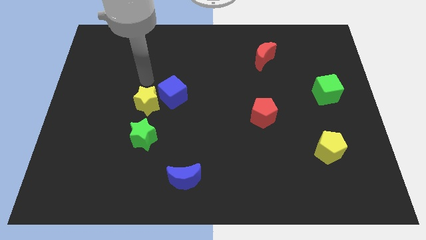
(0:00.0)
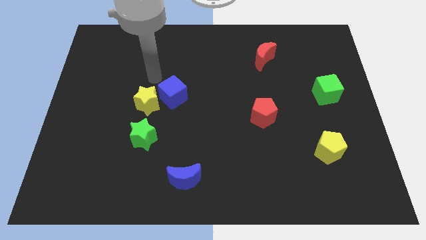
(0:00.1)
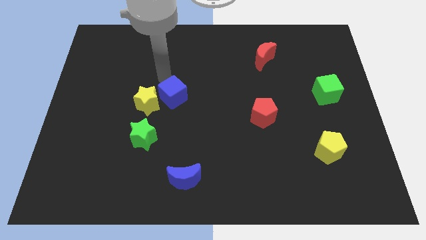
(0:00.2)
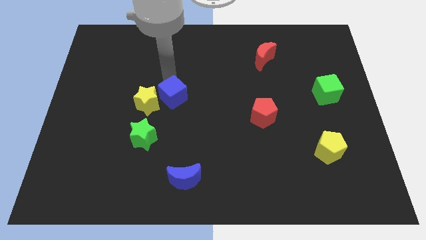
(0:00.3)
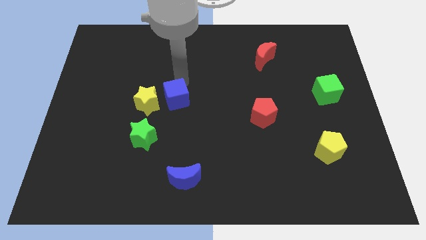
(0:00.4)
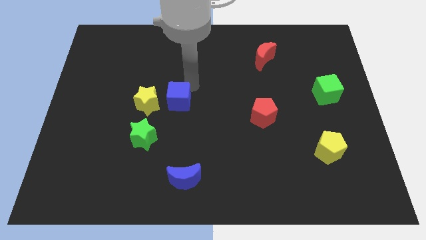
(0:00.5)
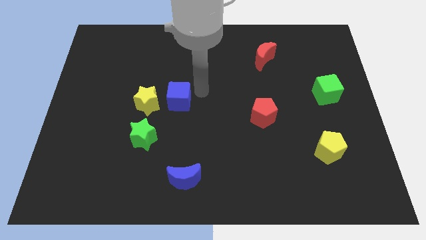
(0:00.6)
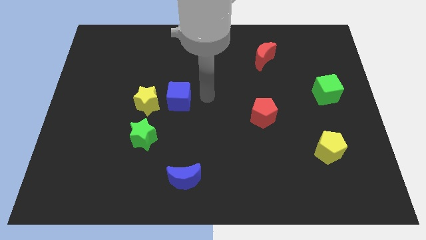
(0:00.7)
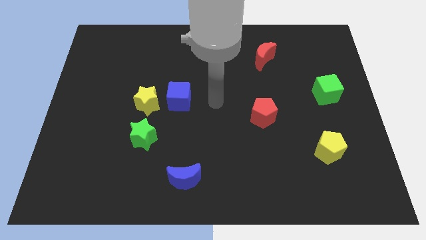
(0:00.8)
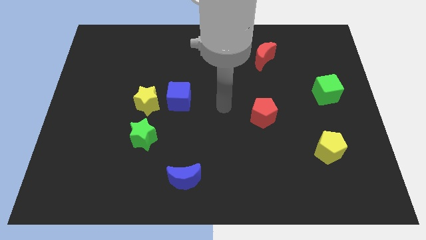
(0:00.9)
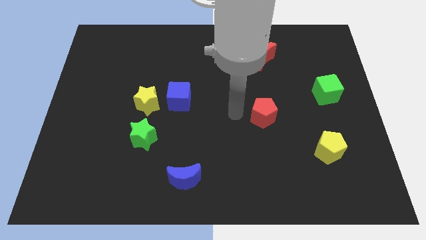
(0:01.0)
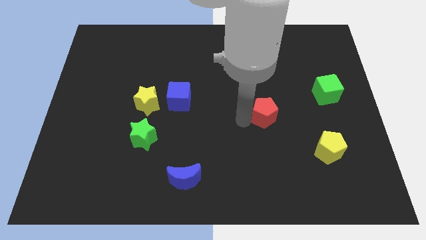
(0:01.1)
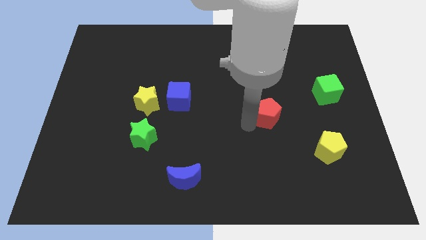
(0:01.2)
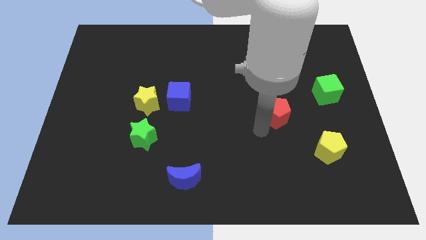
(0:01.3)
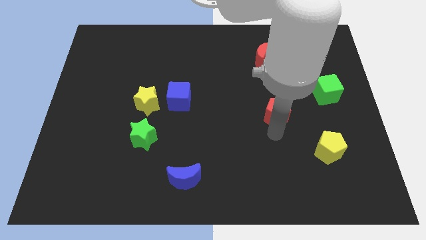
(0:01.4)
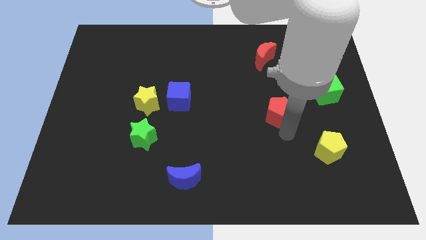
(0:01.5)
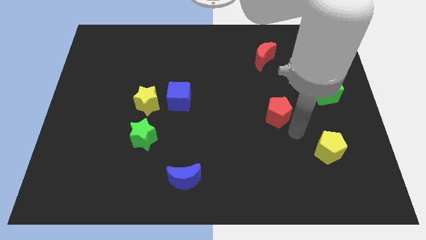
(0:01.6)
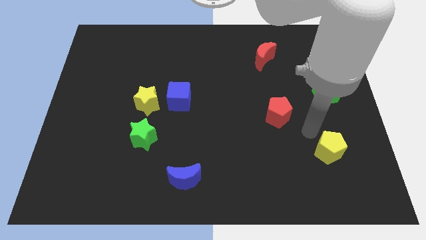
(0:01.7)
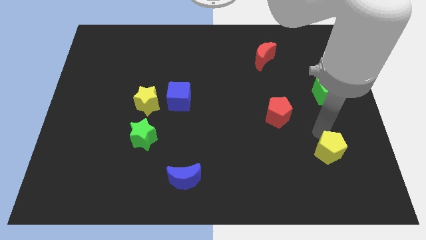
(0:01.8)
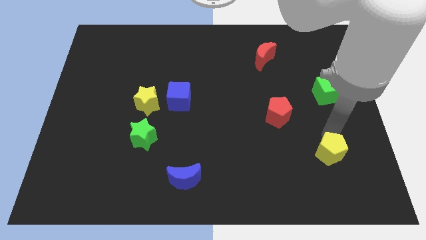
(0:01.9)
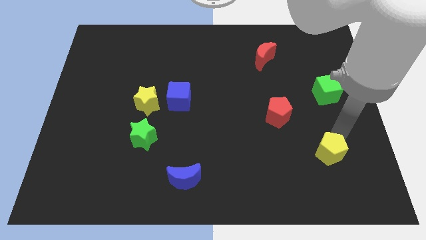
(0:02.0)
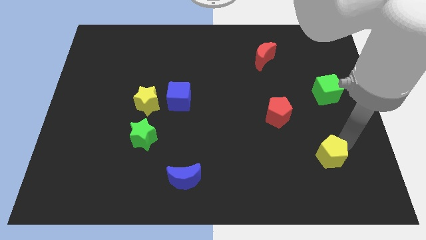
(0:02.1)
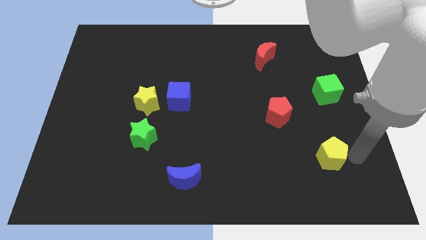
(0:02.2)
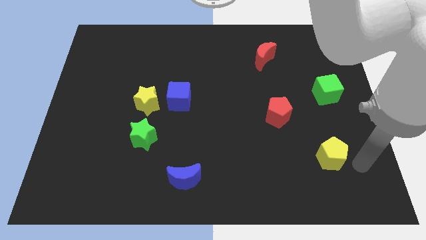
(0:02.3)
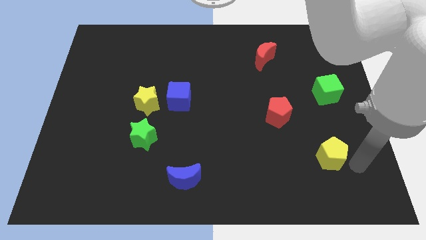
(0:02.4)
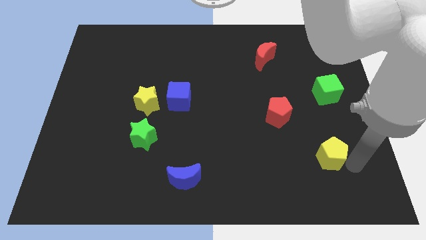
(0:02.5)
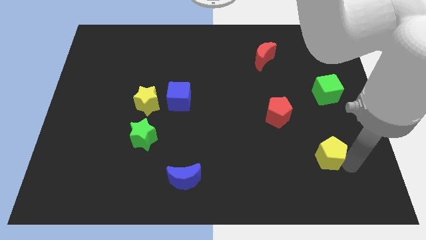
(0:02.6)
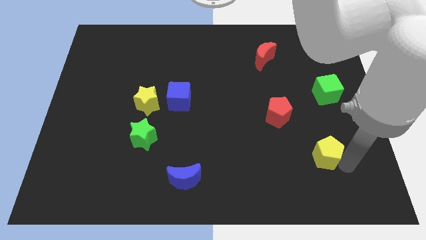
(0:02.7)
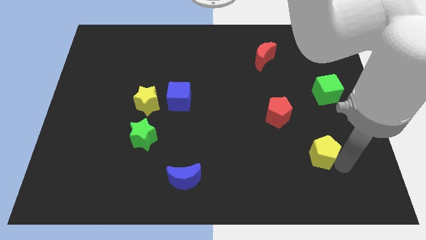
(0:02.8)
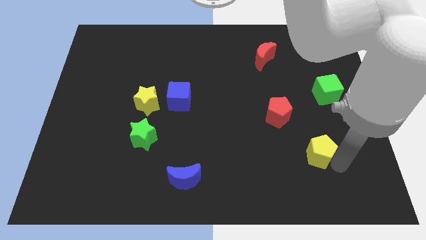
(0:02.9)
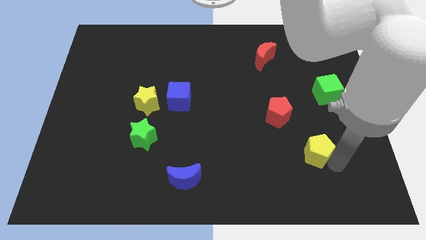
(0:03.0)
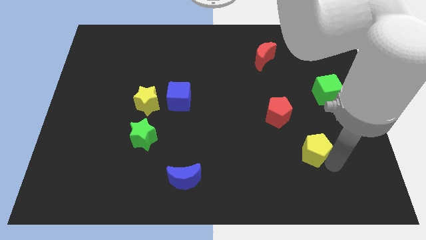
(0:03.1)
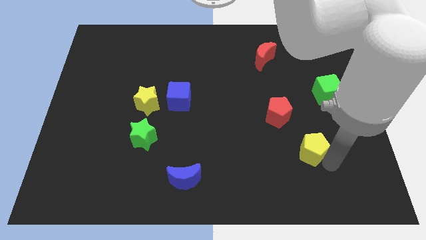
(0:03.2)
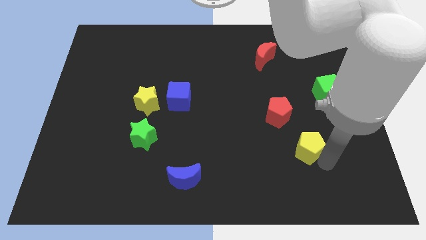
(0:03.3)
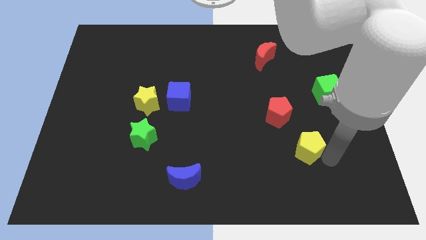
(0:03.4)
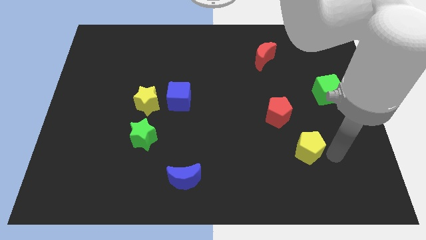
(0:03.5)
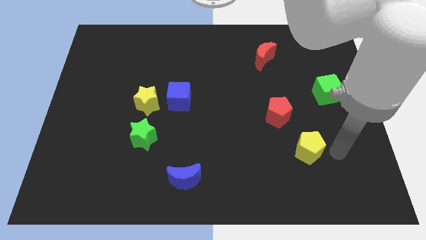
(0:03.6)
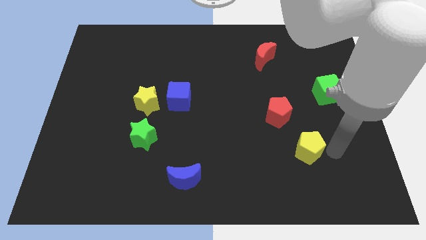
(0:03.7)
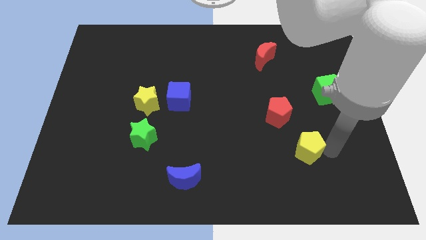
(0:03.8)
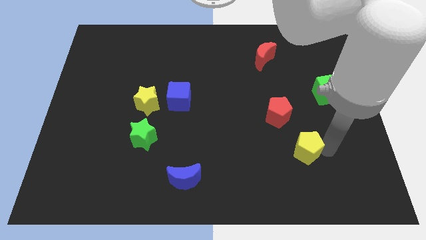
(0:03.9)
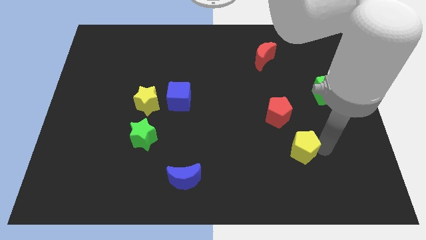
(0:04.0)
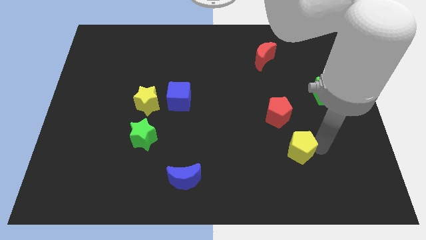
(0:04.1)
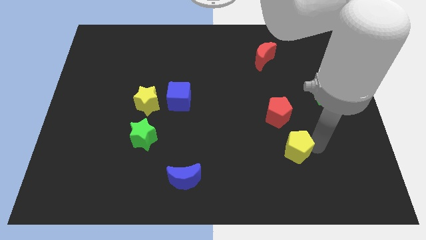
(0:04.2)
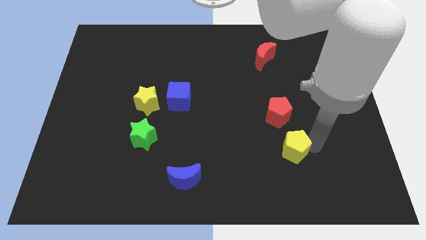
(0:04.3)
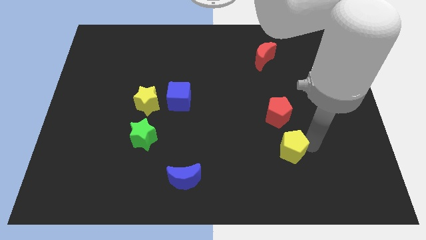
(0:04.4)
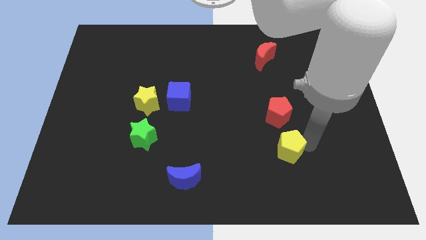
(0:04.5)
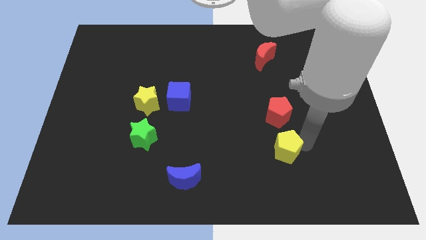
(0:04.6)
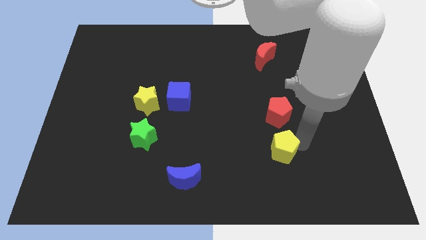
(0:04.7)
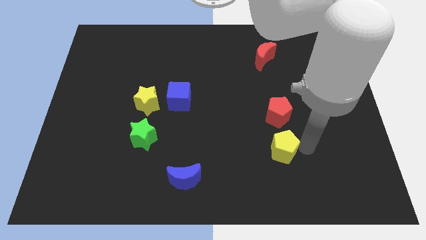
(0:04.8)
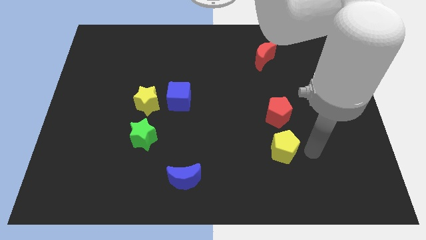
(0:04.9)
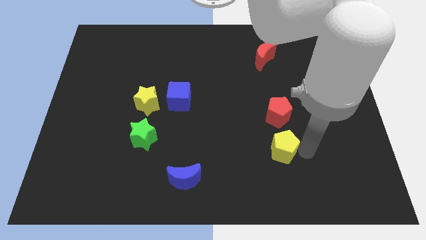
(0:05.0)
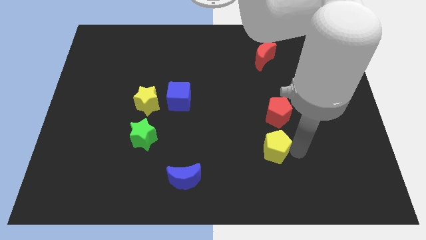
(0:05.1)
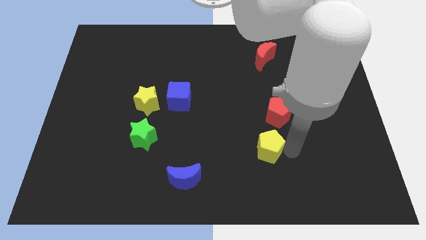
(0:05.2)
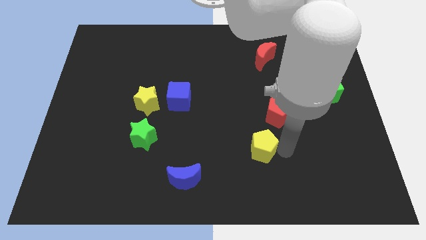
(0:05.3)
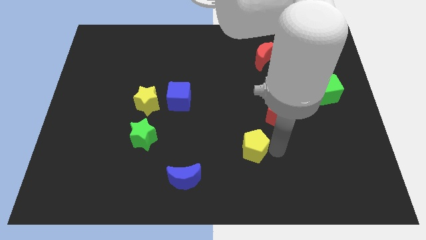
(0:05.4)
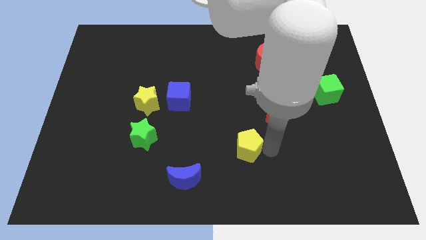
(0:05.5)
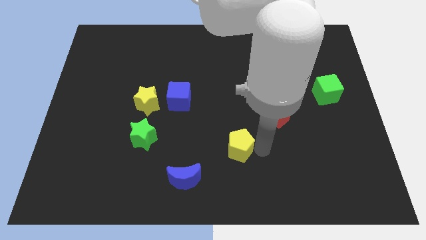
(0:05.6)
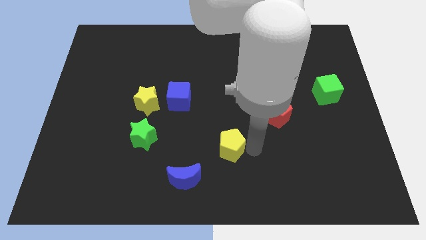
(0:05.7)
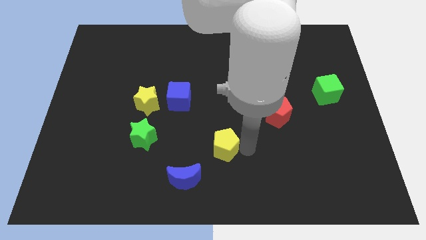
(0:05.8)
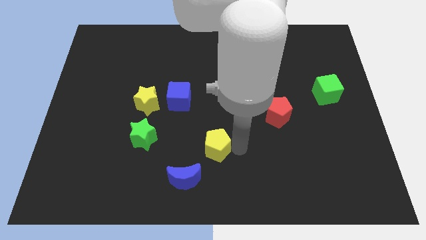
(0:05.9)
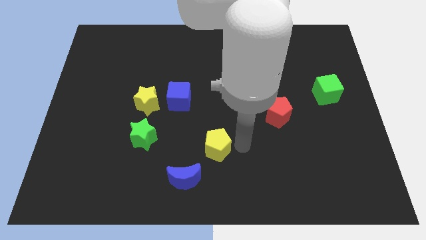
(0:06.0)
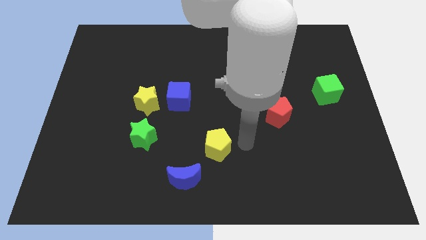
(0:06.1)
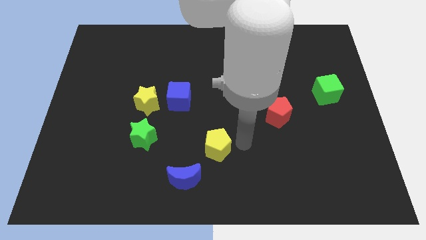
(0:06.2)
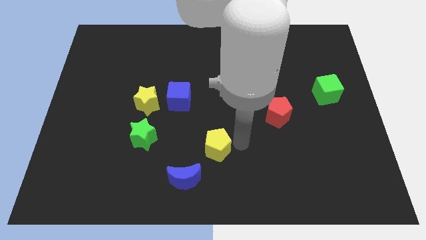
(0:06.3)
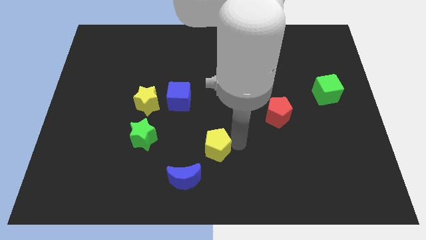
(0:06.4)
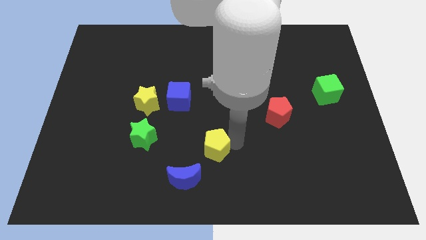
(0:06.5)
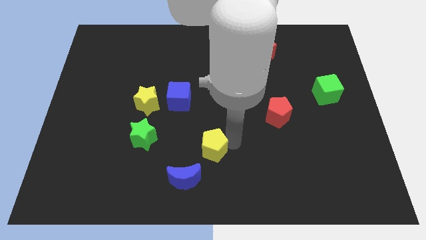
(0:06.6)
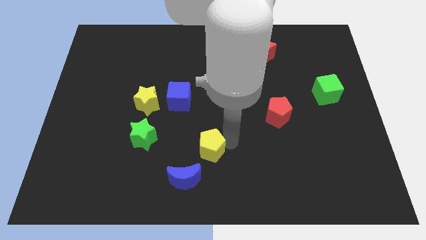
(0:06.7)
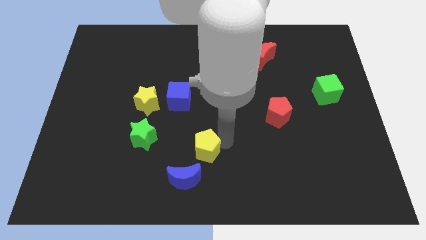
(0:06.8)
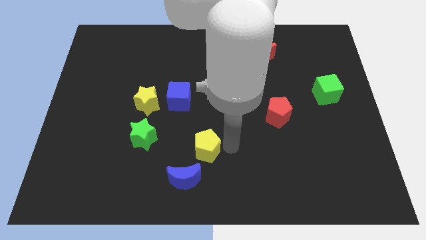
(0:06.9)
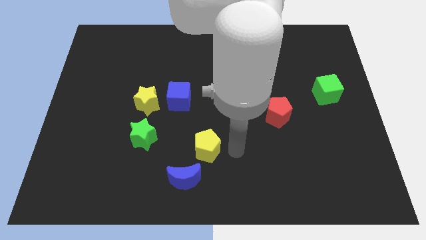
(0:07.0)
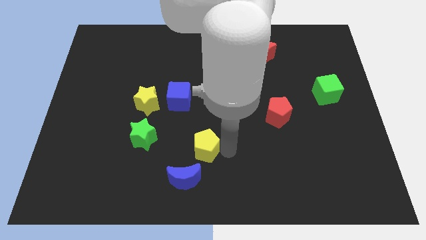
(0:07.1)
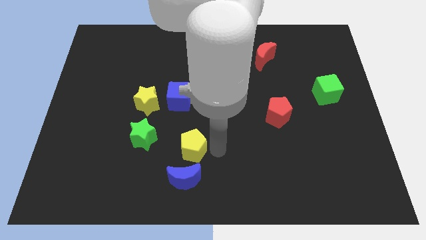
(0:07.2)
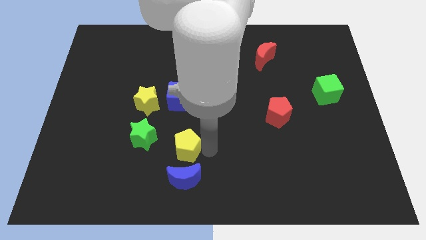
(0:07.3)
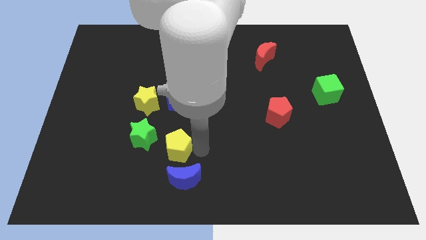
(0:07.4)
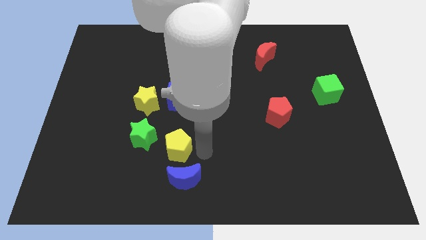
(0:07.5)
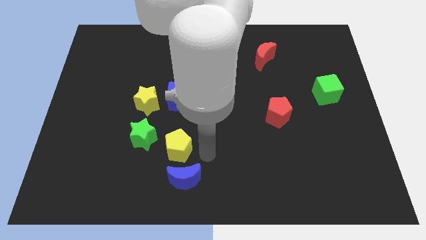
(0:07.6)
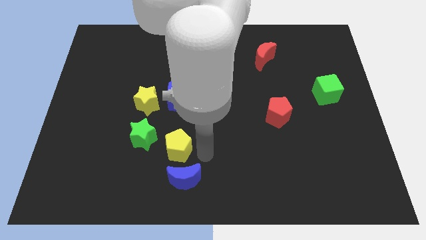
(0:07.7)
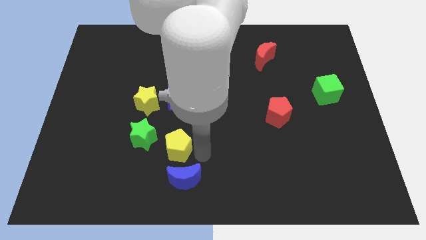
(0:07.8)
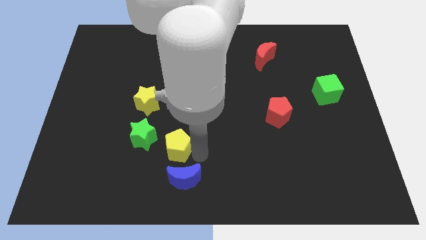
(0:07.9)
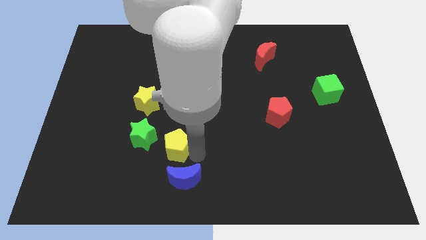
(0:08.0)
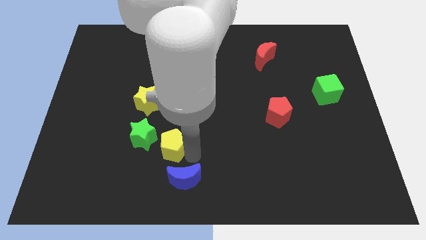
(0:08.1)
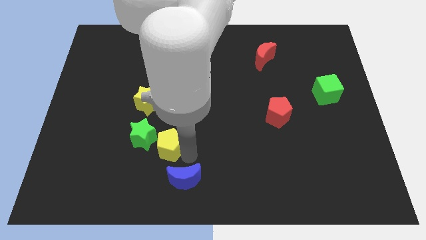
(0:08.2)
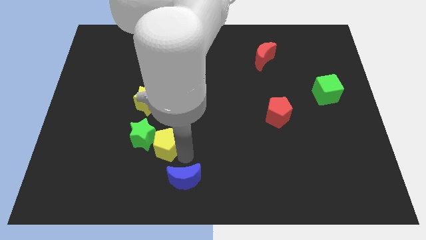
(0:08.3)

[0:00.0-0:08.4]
slide the yellow pentagon towards the green star
